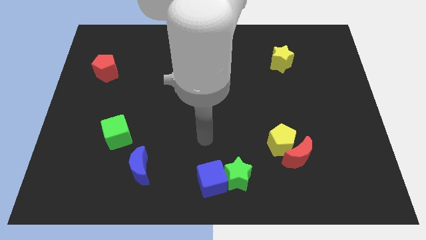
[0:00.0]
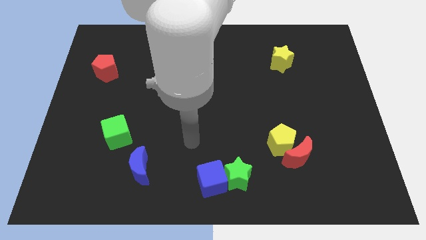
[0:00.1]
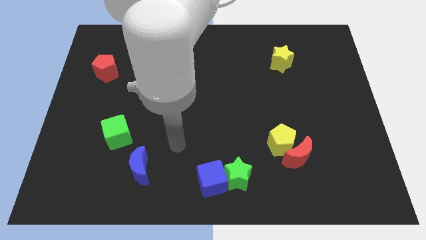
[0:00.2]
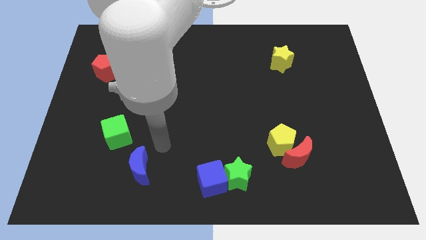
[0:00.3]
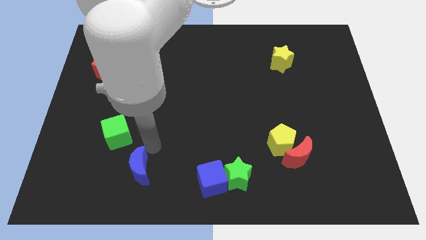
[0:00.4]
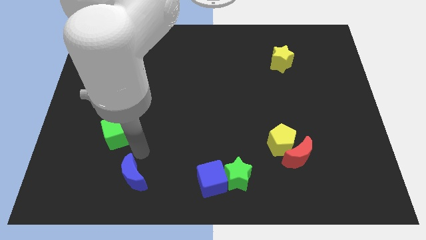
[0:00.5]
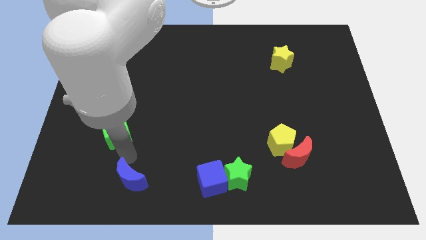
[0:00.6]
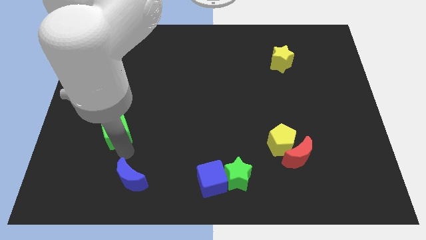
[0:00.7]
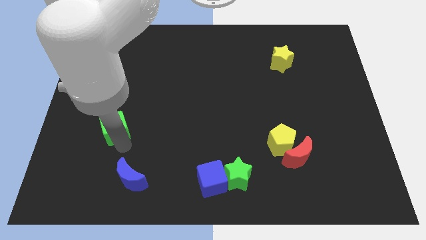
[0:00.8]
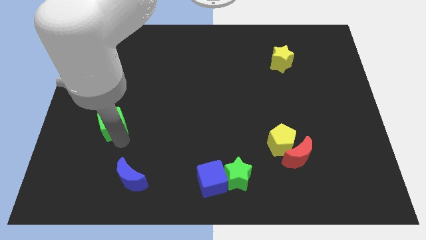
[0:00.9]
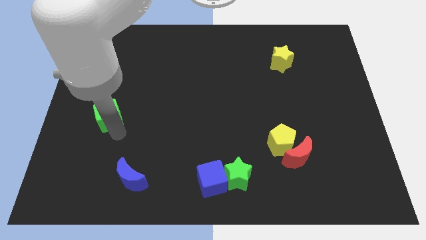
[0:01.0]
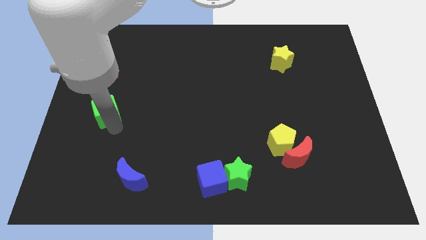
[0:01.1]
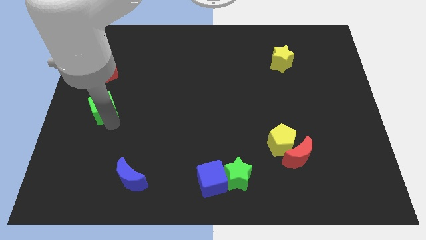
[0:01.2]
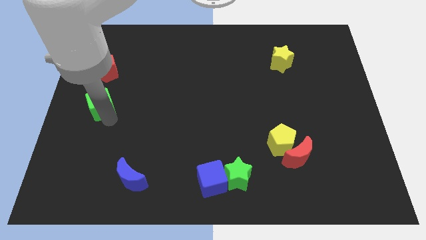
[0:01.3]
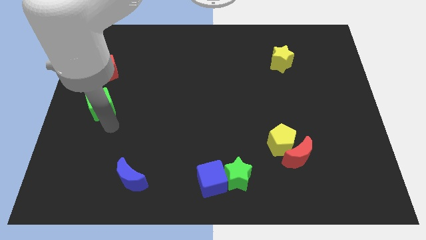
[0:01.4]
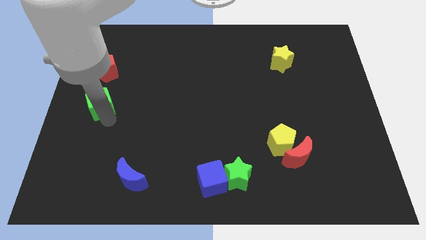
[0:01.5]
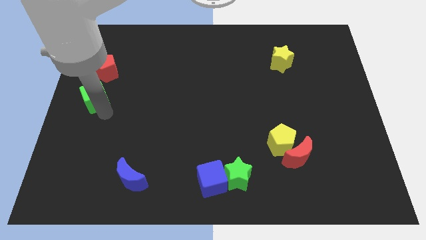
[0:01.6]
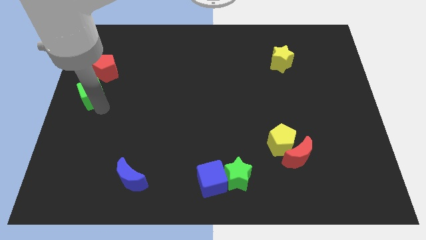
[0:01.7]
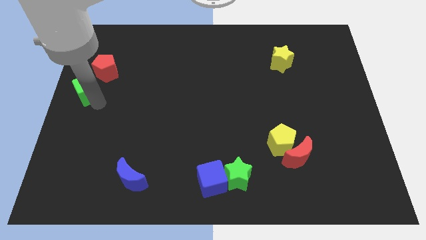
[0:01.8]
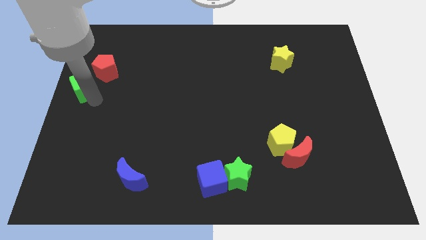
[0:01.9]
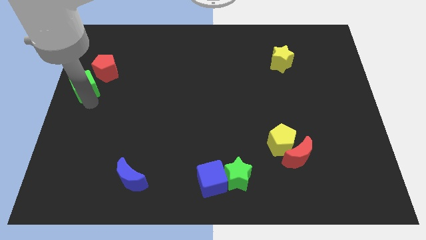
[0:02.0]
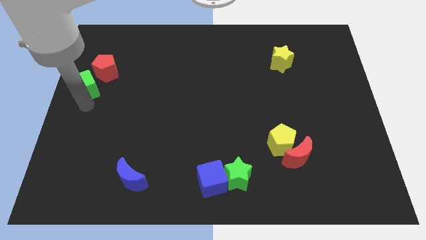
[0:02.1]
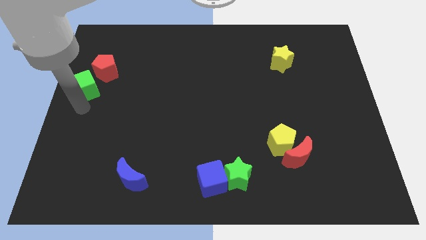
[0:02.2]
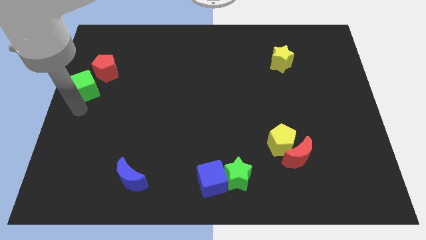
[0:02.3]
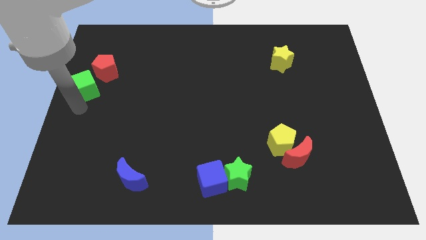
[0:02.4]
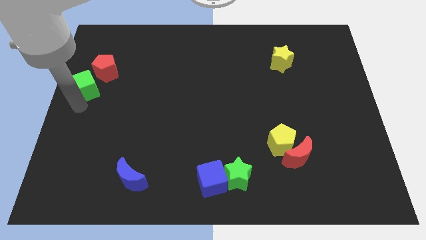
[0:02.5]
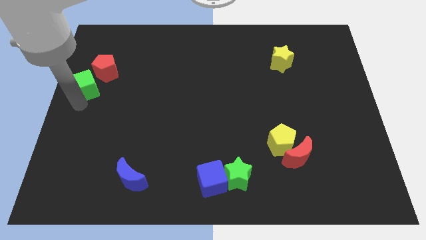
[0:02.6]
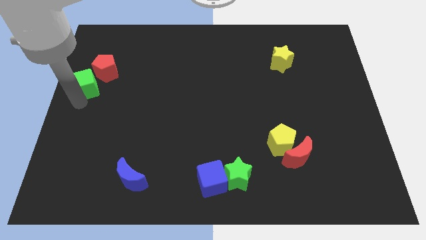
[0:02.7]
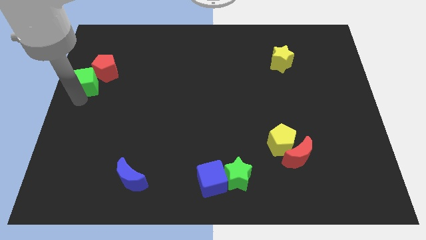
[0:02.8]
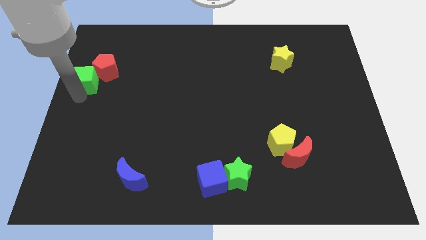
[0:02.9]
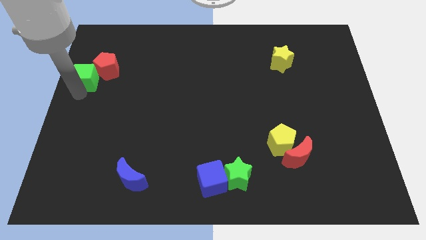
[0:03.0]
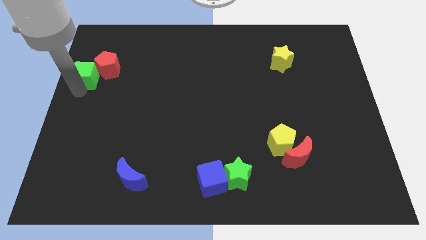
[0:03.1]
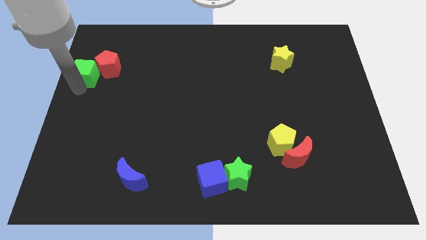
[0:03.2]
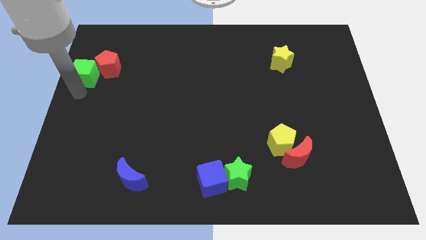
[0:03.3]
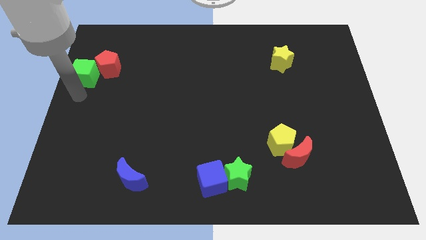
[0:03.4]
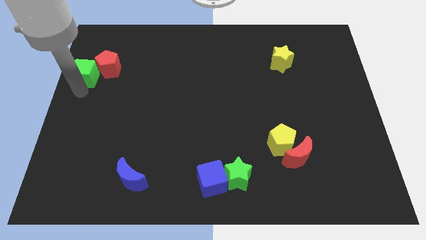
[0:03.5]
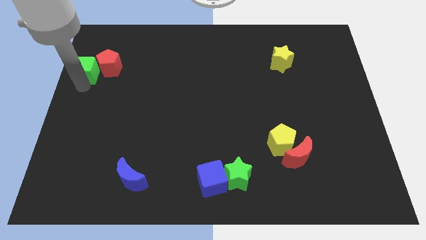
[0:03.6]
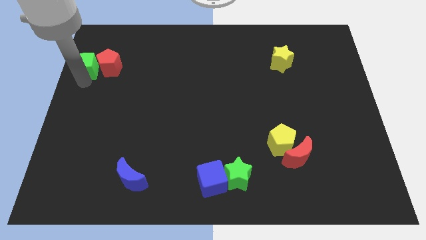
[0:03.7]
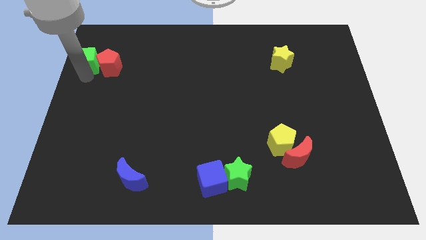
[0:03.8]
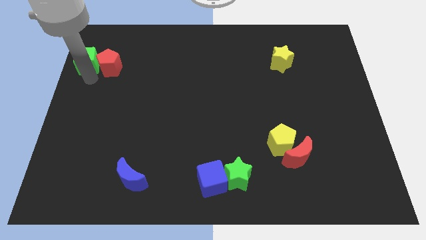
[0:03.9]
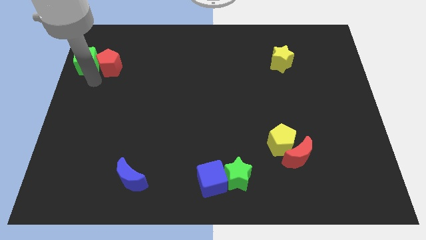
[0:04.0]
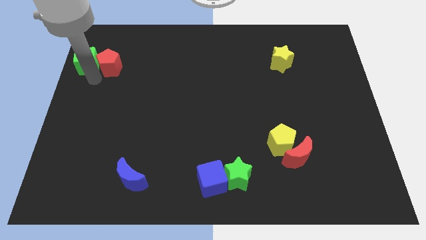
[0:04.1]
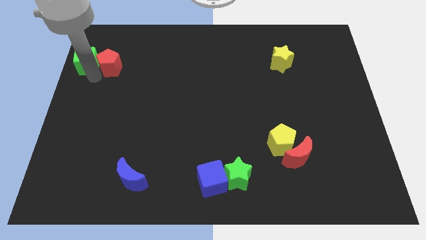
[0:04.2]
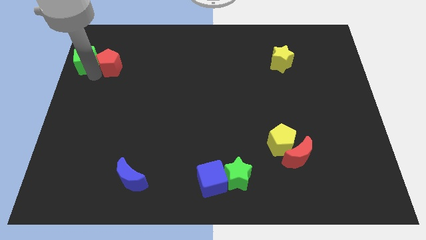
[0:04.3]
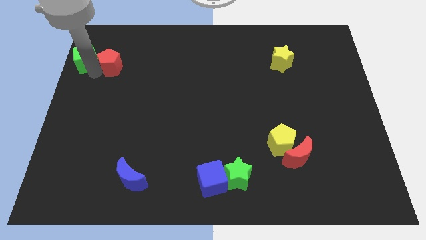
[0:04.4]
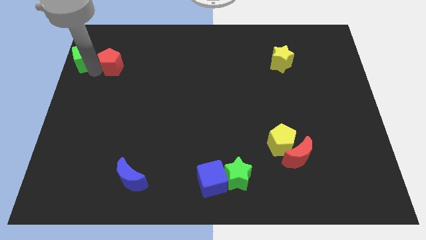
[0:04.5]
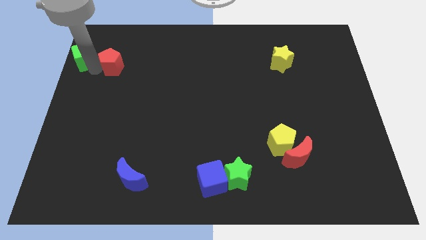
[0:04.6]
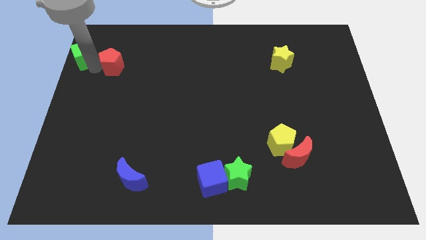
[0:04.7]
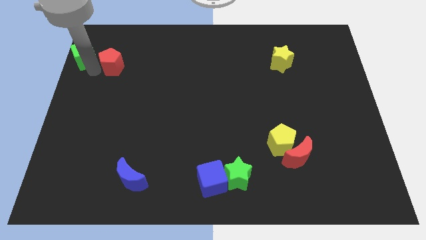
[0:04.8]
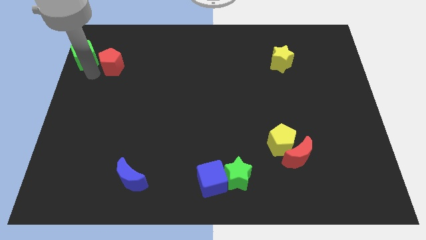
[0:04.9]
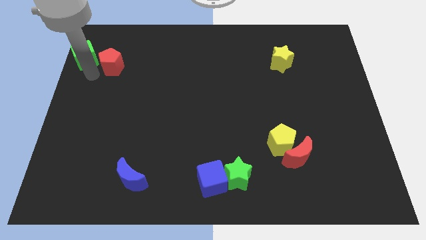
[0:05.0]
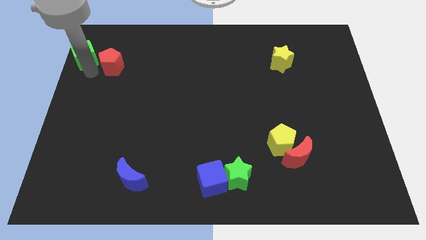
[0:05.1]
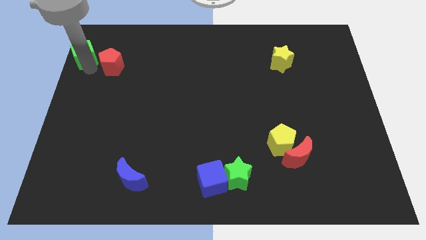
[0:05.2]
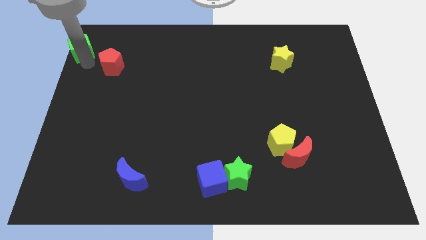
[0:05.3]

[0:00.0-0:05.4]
put the green cube to the upper left corner
